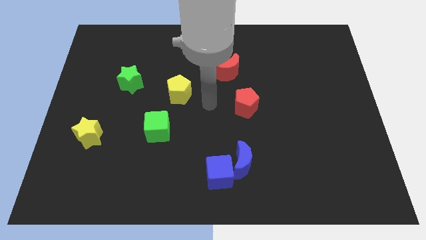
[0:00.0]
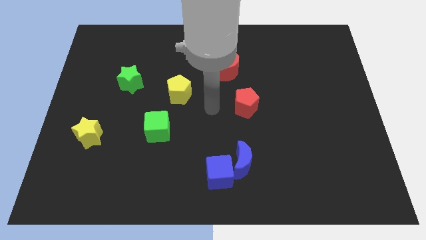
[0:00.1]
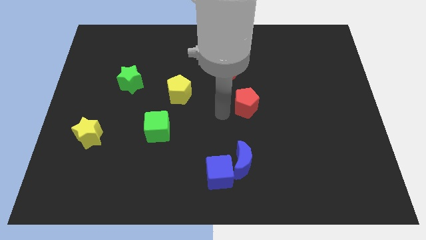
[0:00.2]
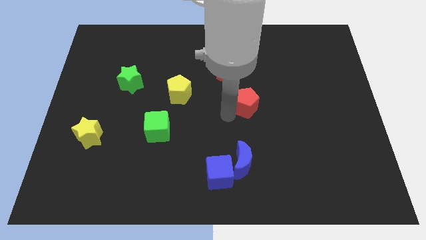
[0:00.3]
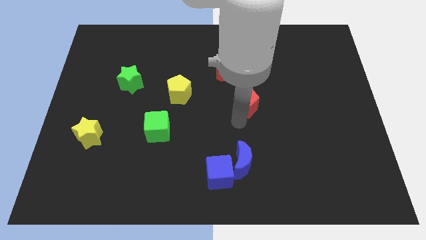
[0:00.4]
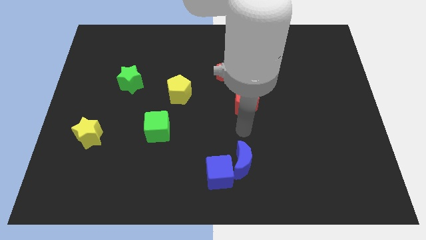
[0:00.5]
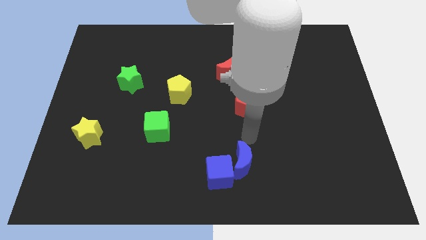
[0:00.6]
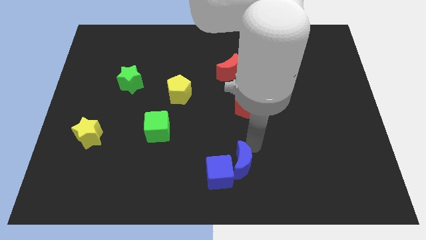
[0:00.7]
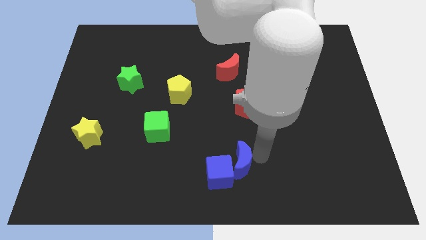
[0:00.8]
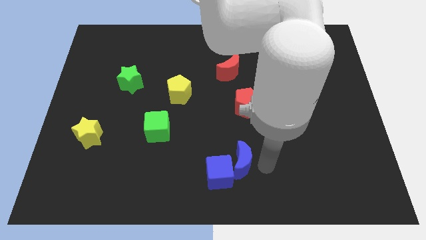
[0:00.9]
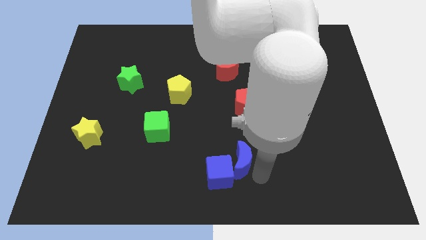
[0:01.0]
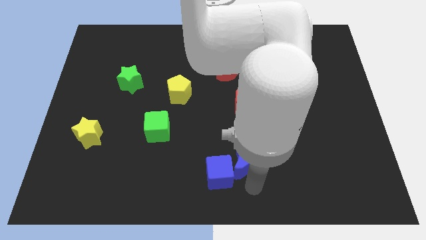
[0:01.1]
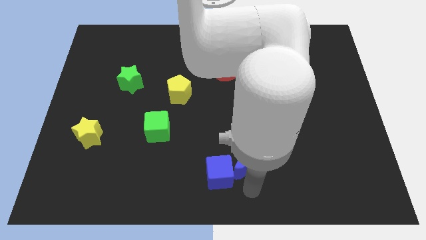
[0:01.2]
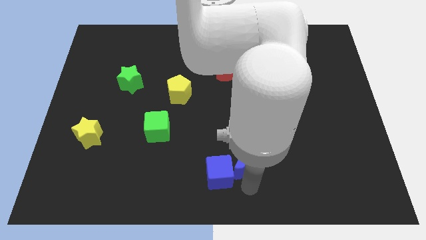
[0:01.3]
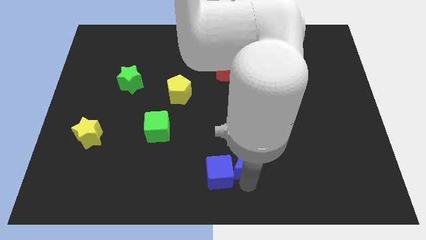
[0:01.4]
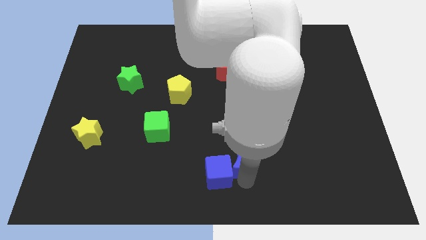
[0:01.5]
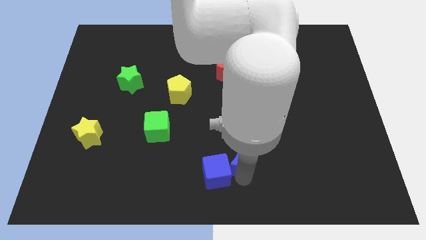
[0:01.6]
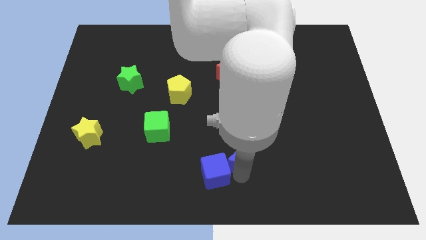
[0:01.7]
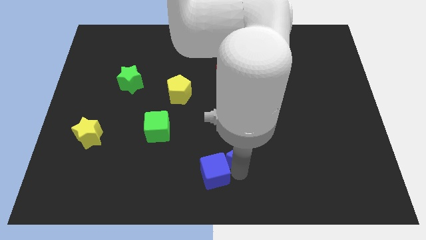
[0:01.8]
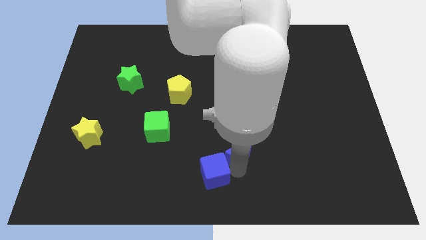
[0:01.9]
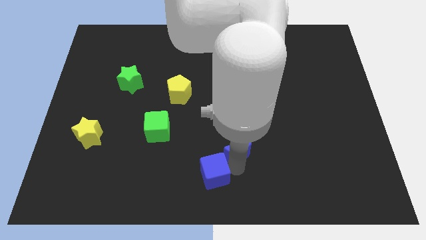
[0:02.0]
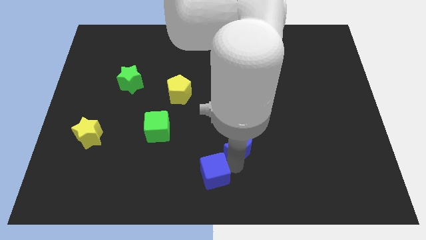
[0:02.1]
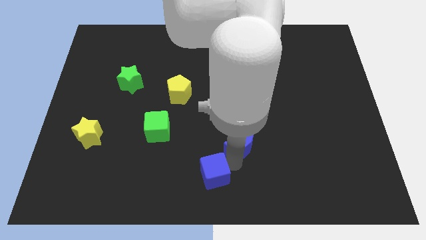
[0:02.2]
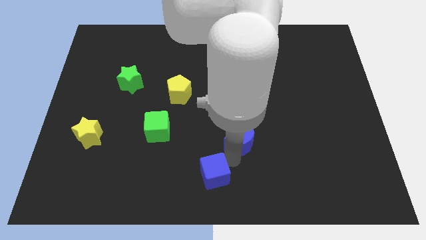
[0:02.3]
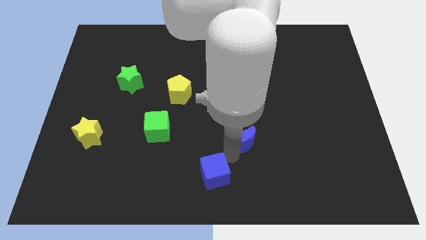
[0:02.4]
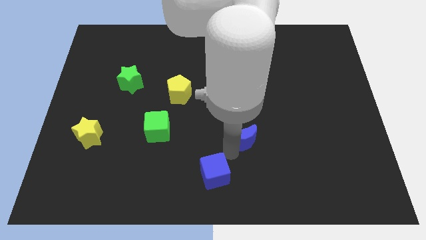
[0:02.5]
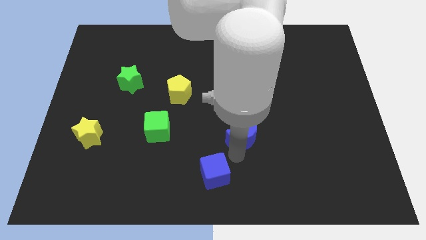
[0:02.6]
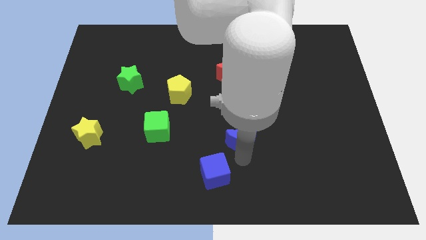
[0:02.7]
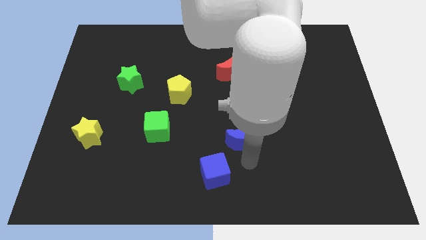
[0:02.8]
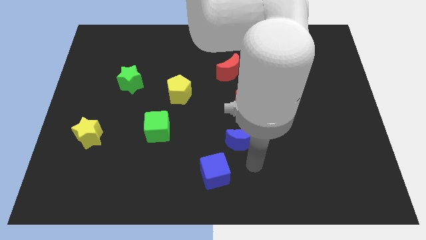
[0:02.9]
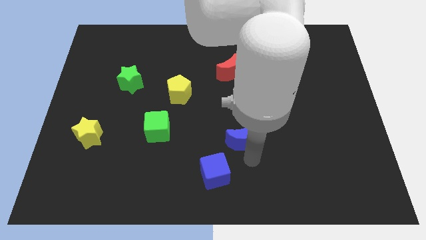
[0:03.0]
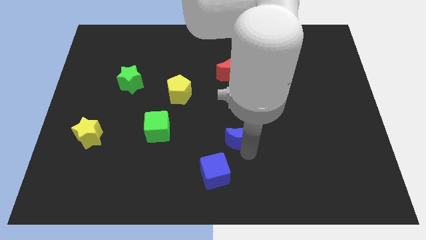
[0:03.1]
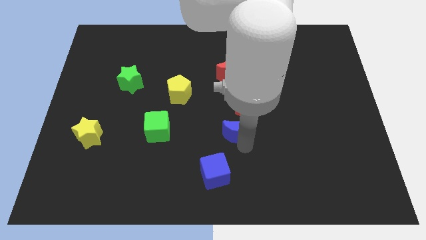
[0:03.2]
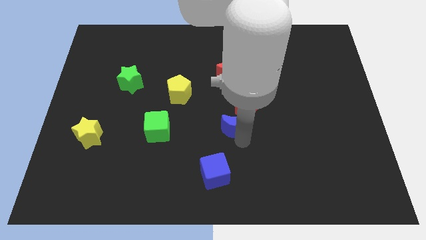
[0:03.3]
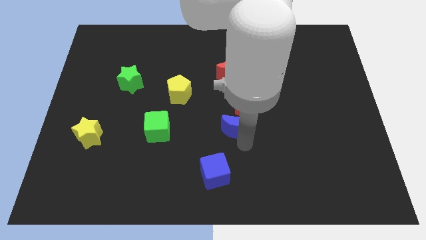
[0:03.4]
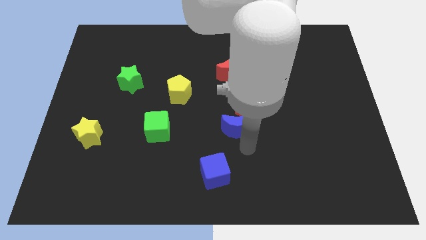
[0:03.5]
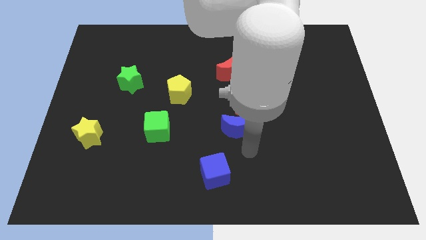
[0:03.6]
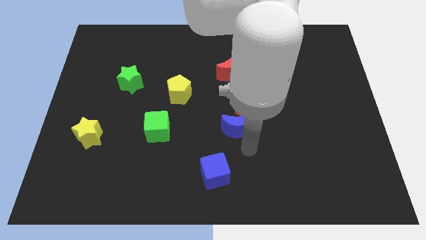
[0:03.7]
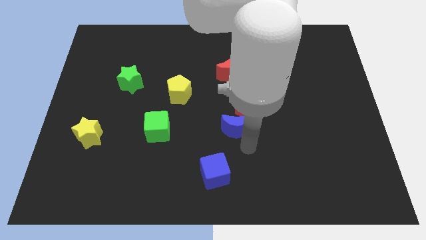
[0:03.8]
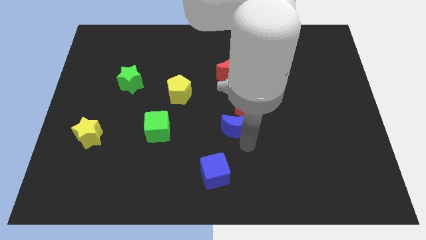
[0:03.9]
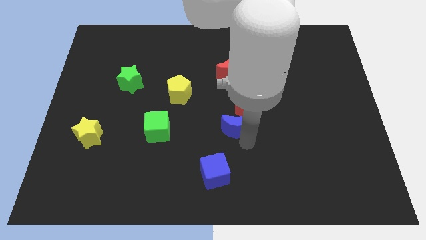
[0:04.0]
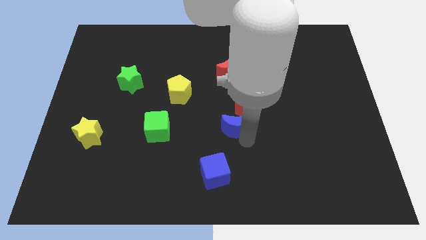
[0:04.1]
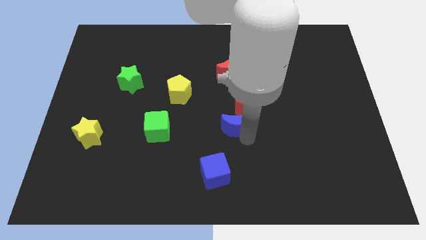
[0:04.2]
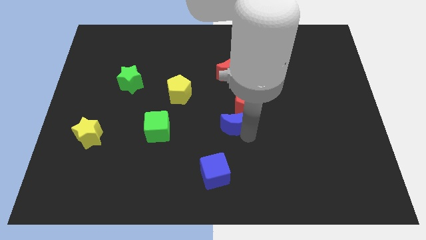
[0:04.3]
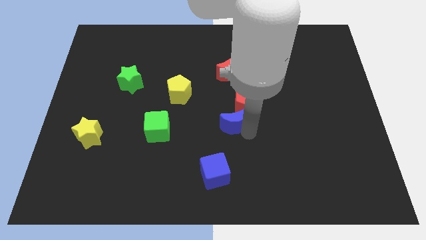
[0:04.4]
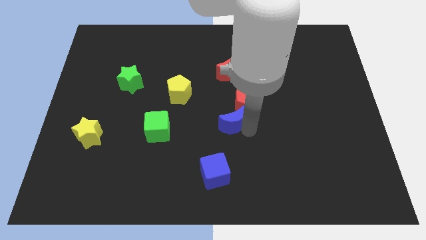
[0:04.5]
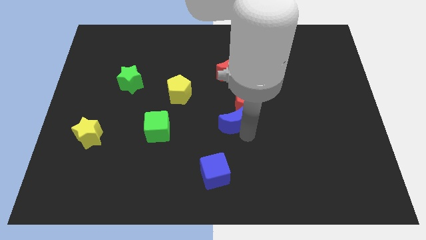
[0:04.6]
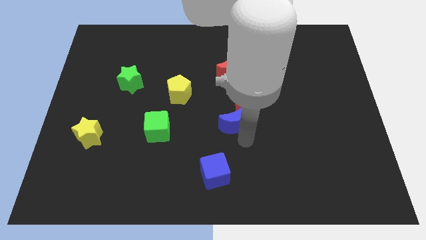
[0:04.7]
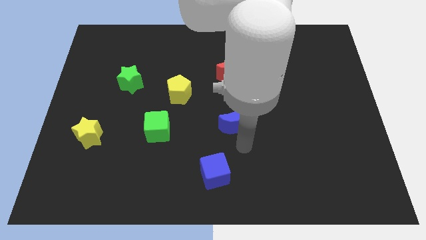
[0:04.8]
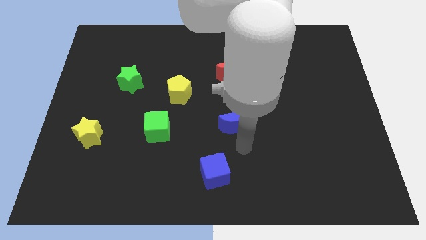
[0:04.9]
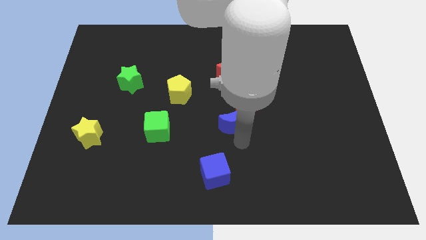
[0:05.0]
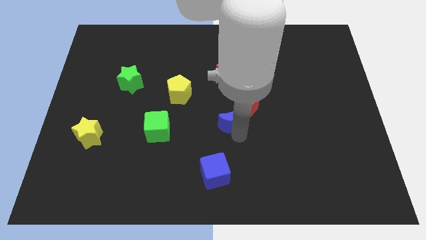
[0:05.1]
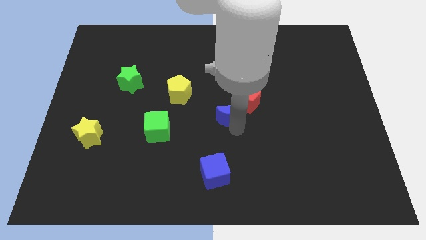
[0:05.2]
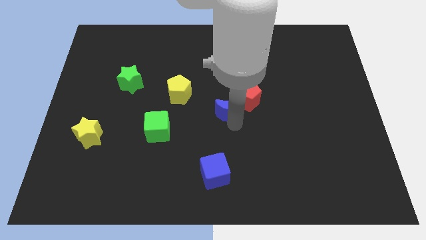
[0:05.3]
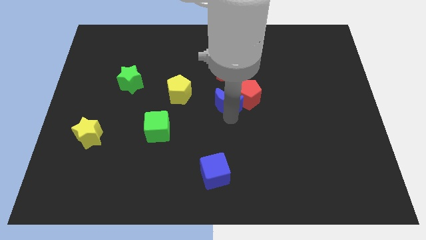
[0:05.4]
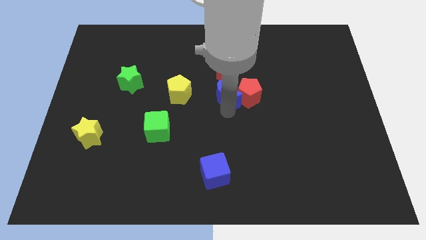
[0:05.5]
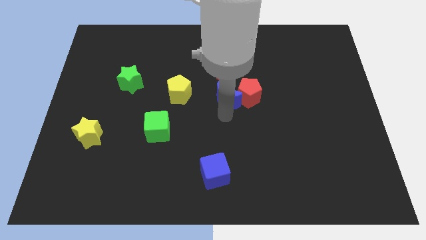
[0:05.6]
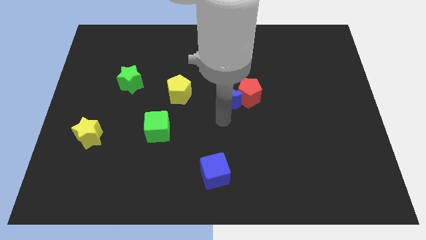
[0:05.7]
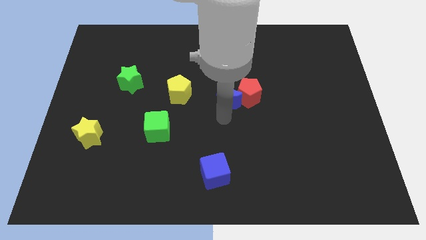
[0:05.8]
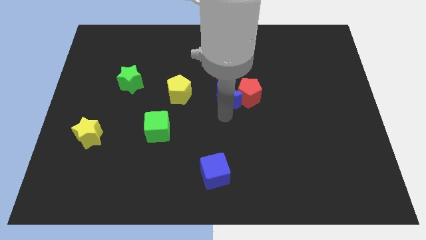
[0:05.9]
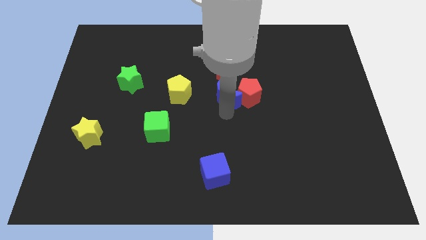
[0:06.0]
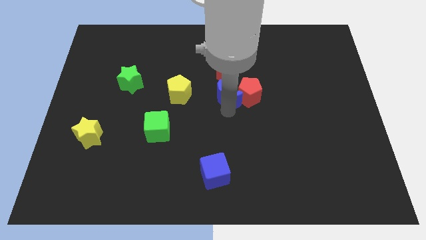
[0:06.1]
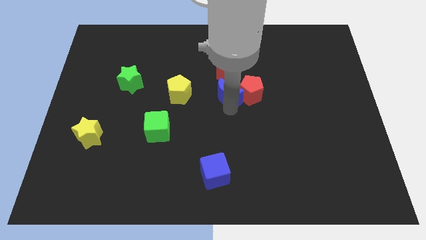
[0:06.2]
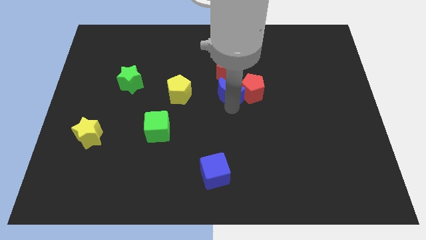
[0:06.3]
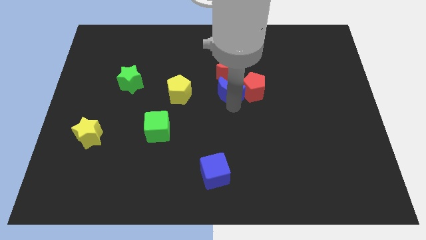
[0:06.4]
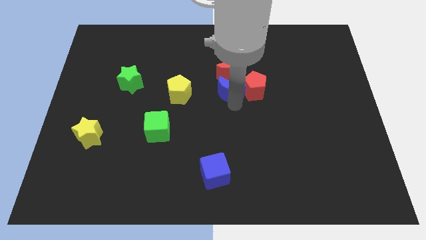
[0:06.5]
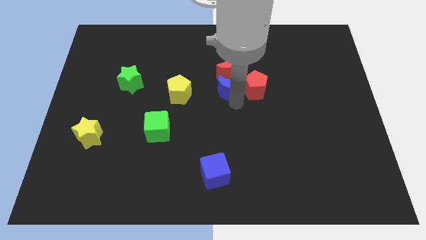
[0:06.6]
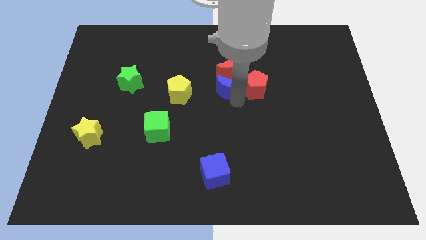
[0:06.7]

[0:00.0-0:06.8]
push the blue moon towards the red moon
